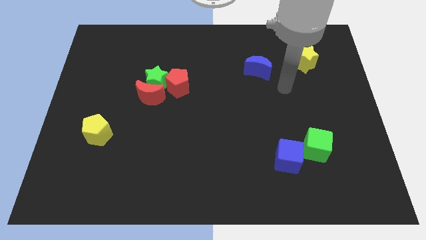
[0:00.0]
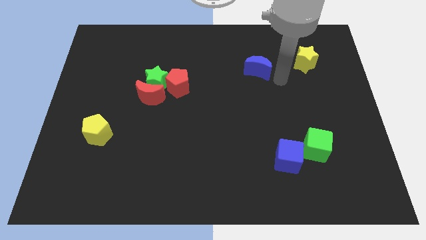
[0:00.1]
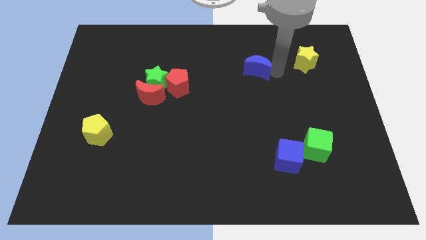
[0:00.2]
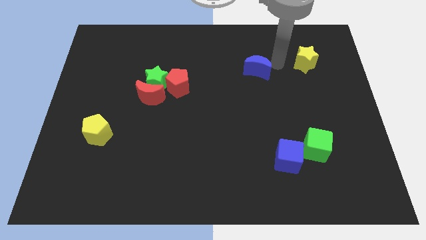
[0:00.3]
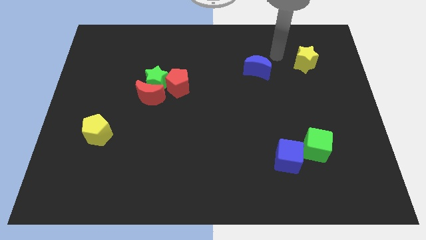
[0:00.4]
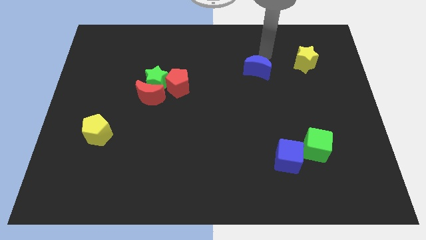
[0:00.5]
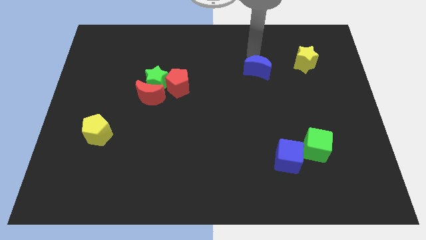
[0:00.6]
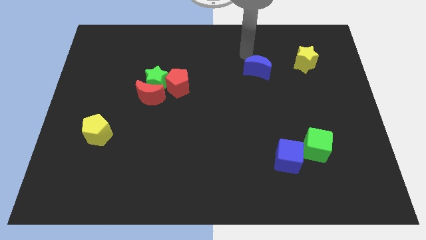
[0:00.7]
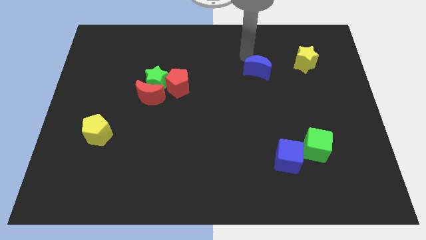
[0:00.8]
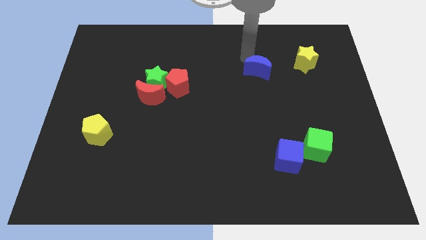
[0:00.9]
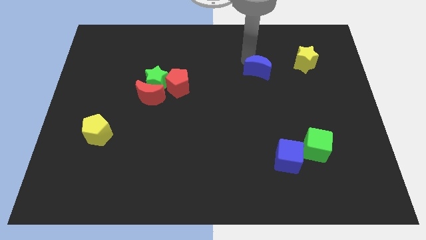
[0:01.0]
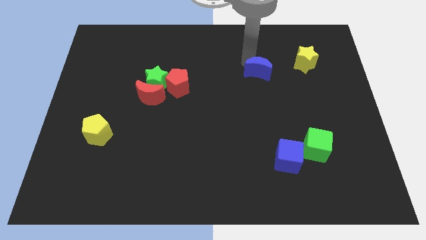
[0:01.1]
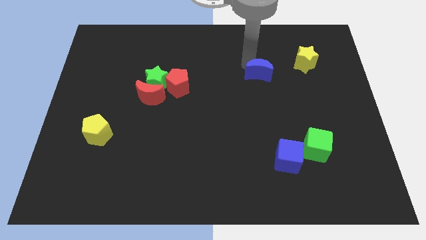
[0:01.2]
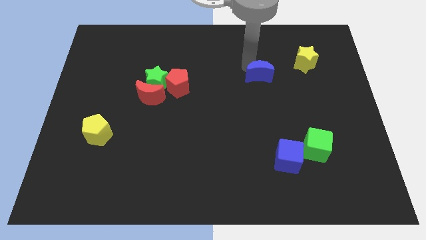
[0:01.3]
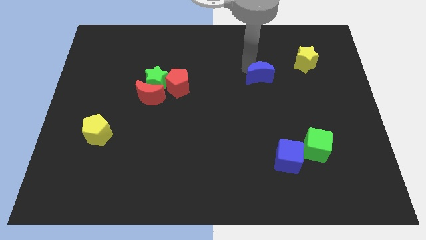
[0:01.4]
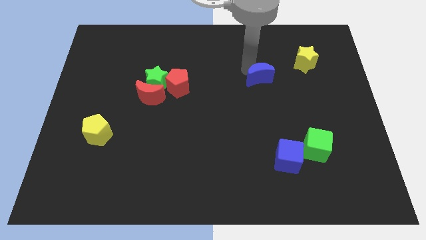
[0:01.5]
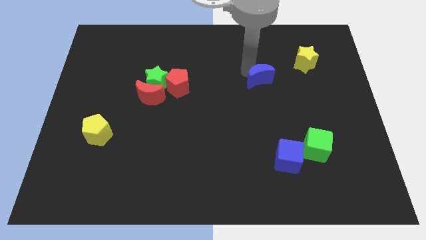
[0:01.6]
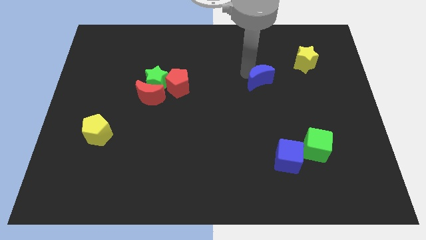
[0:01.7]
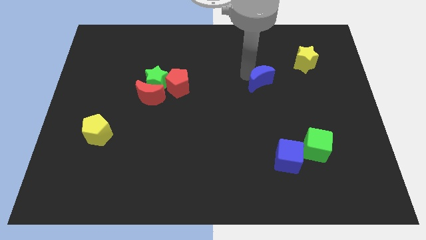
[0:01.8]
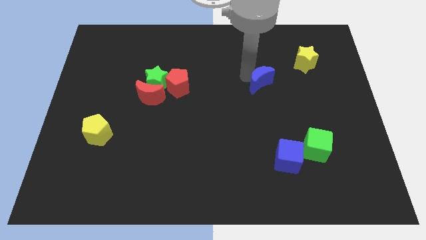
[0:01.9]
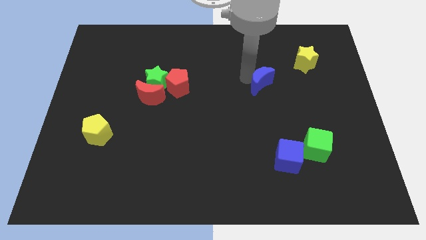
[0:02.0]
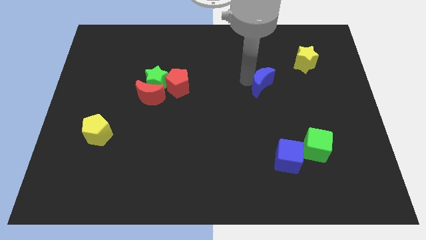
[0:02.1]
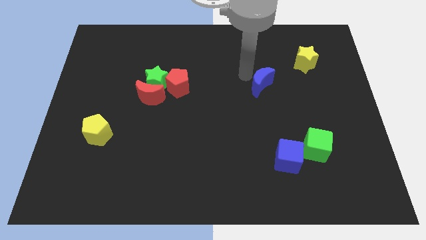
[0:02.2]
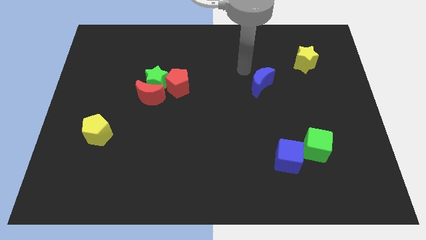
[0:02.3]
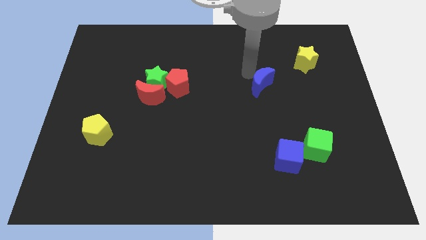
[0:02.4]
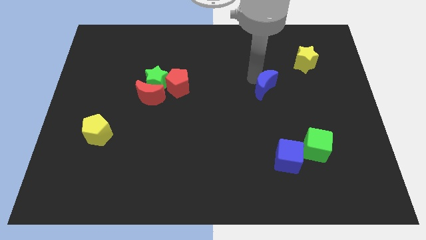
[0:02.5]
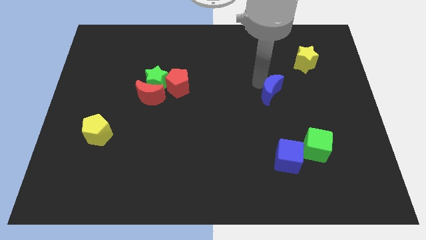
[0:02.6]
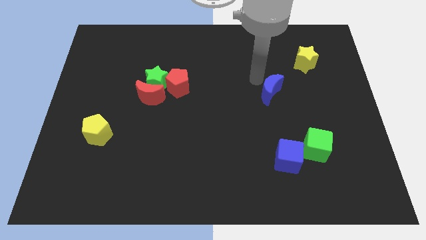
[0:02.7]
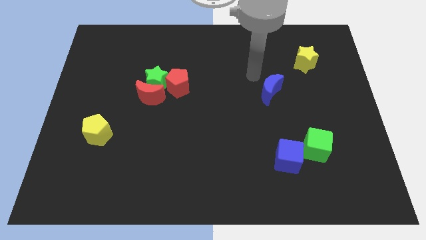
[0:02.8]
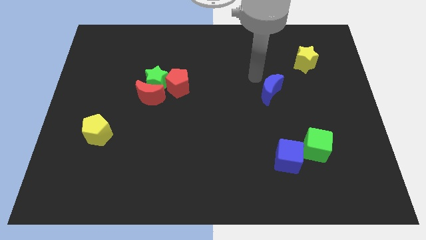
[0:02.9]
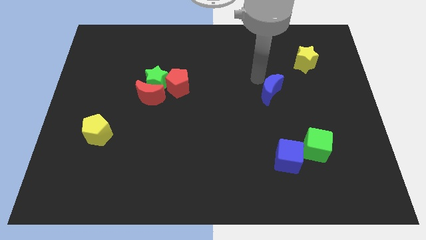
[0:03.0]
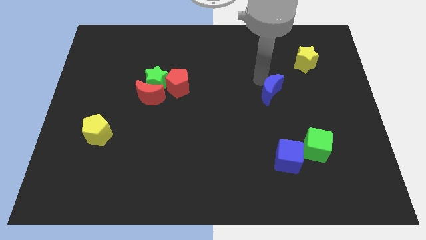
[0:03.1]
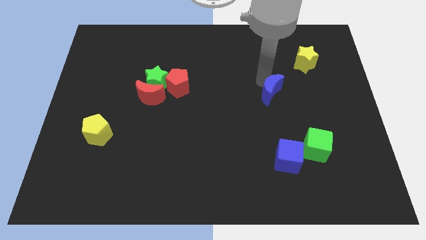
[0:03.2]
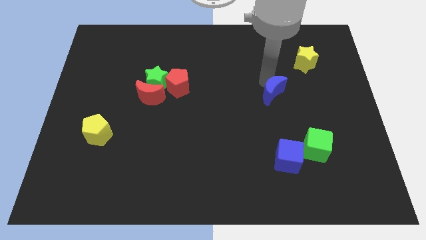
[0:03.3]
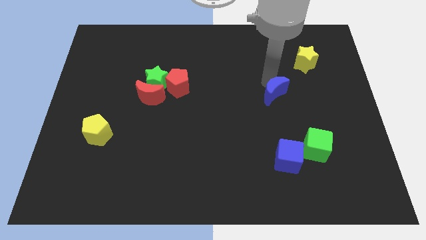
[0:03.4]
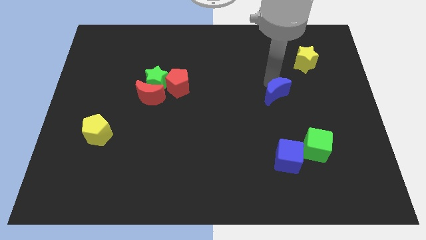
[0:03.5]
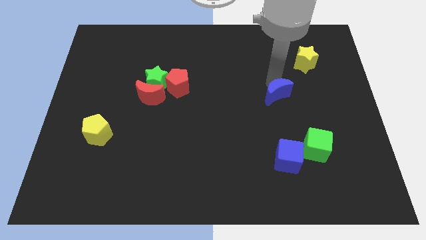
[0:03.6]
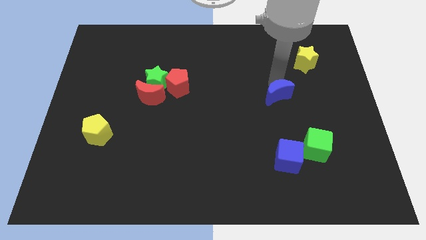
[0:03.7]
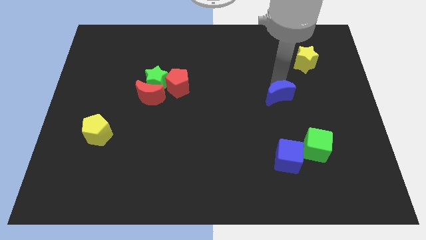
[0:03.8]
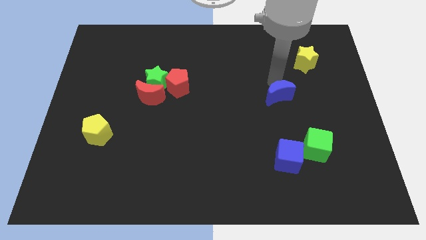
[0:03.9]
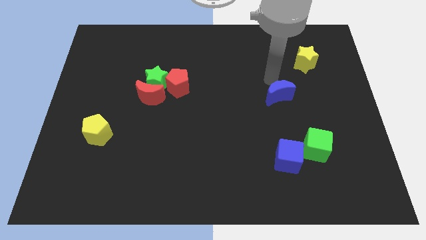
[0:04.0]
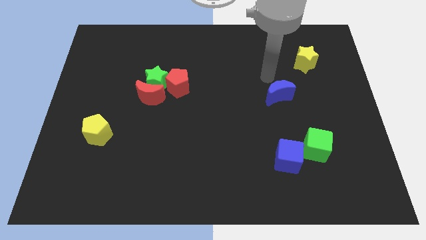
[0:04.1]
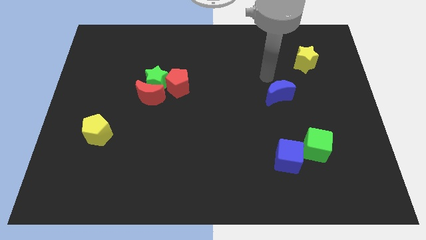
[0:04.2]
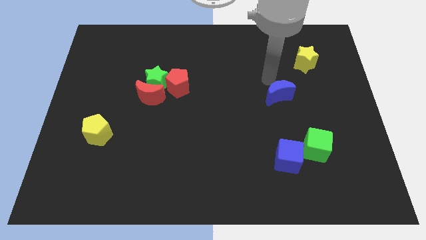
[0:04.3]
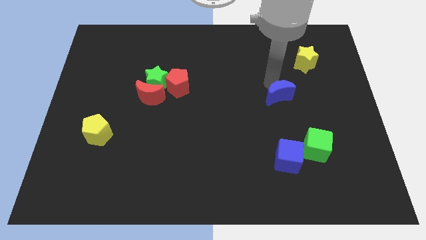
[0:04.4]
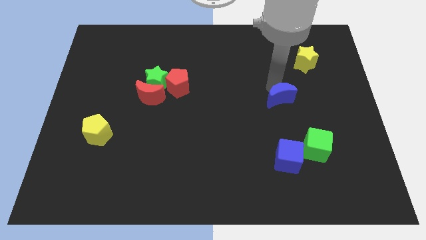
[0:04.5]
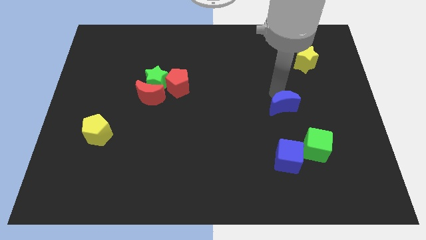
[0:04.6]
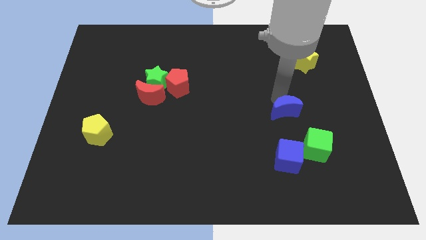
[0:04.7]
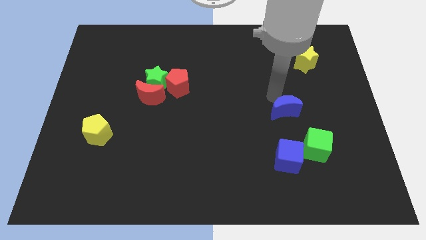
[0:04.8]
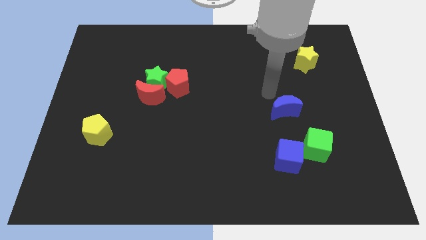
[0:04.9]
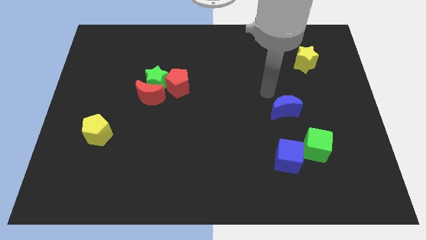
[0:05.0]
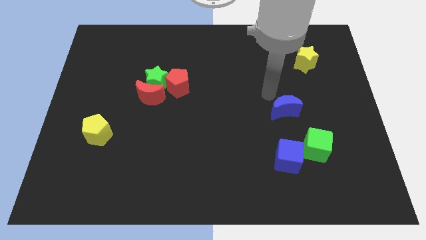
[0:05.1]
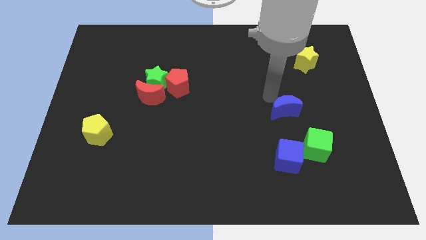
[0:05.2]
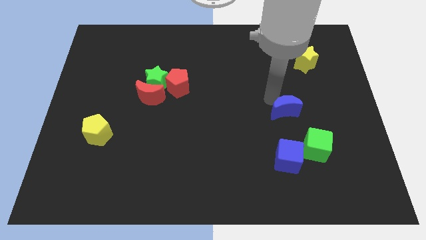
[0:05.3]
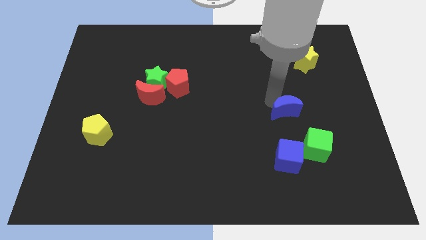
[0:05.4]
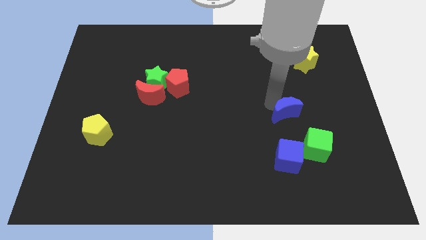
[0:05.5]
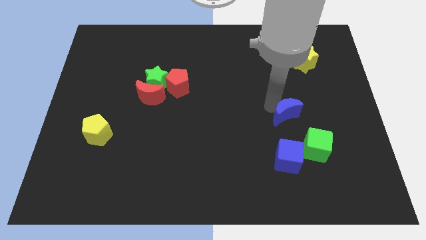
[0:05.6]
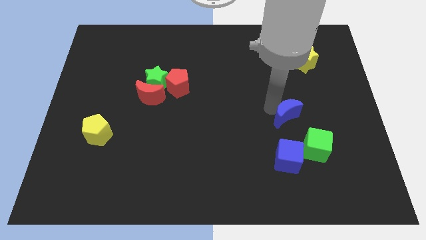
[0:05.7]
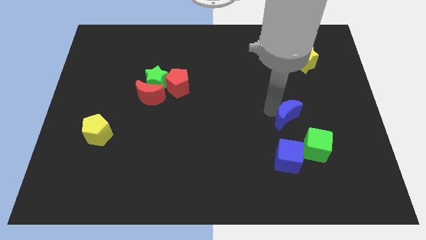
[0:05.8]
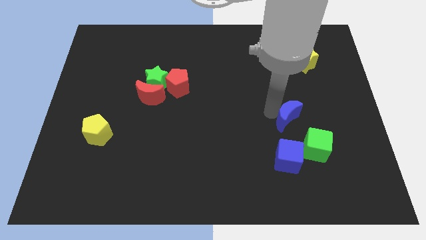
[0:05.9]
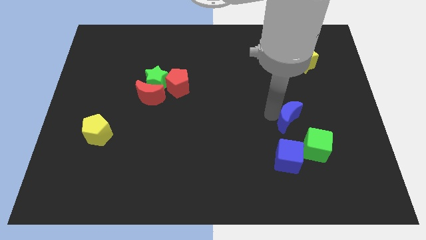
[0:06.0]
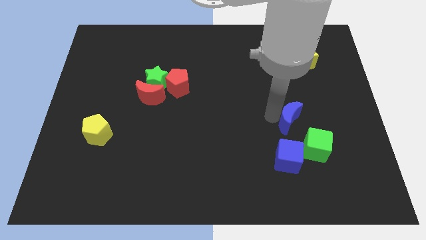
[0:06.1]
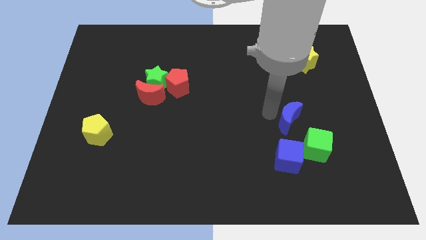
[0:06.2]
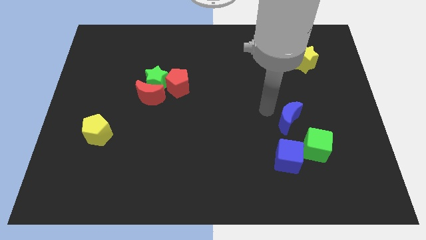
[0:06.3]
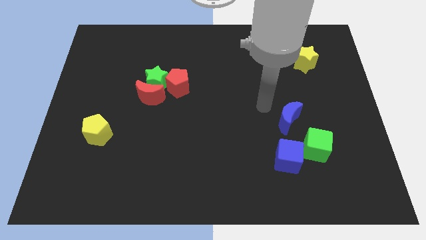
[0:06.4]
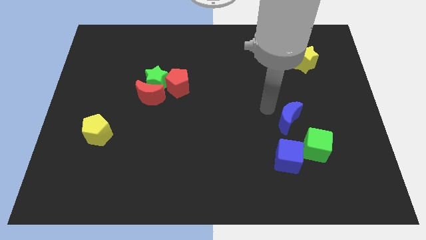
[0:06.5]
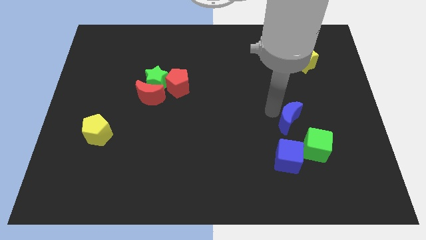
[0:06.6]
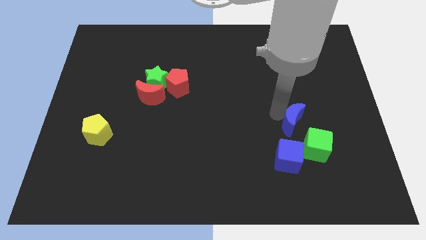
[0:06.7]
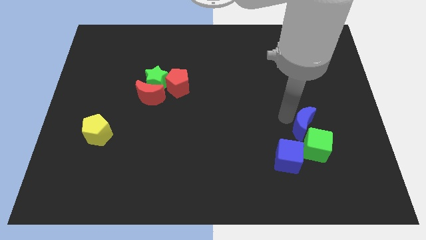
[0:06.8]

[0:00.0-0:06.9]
slide the blue moon towards the green cube
